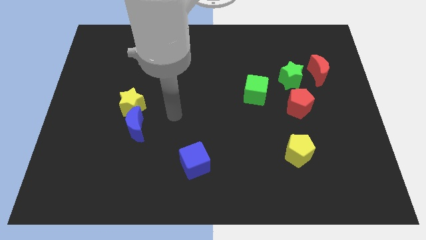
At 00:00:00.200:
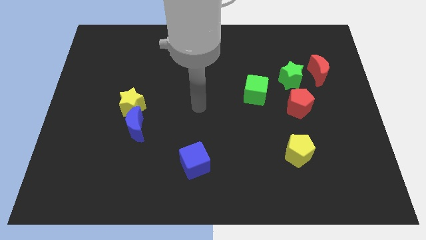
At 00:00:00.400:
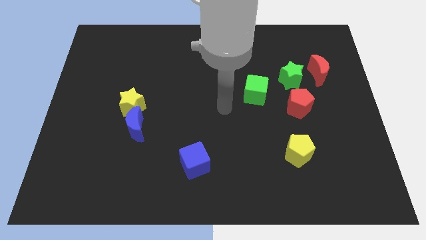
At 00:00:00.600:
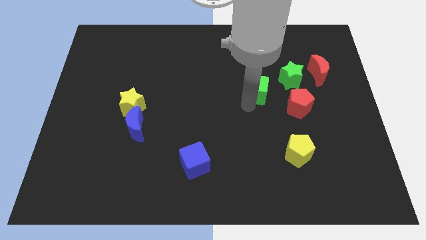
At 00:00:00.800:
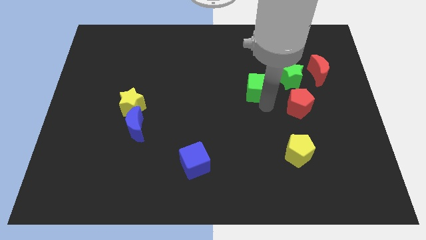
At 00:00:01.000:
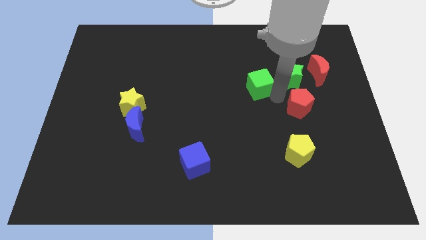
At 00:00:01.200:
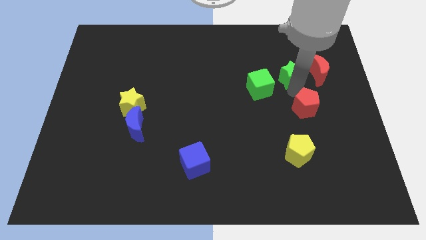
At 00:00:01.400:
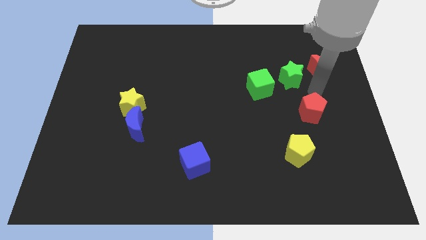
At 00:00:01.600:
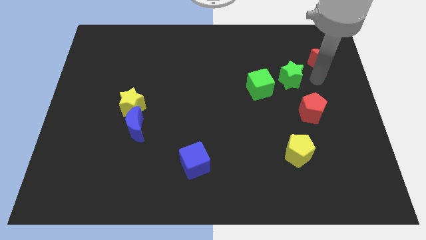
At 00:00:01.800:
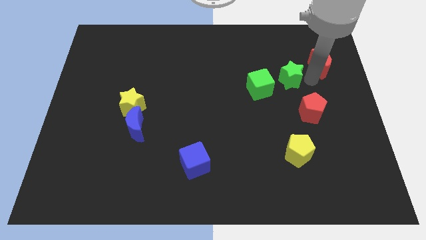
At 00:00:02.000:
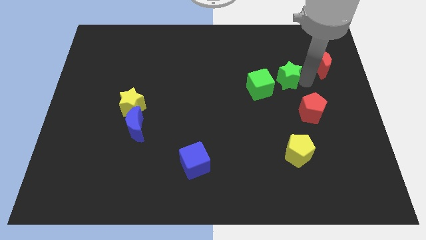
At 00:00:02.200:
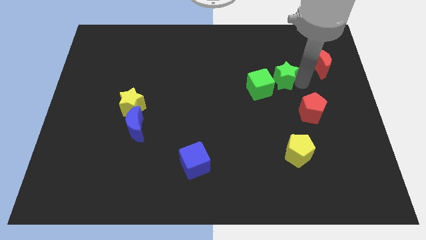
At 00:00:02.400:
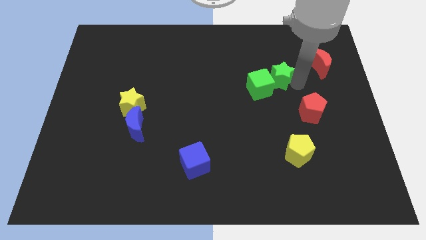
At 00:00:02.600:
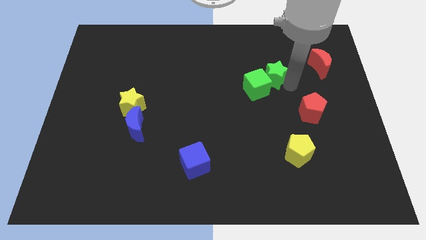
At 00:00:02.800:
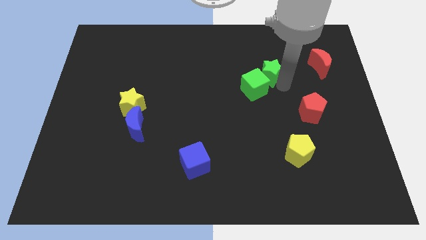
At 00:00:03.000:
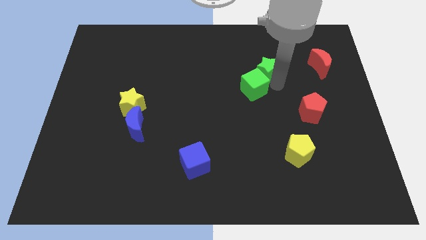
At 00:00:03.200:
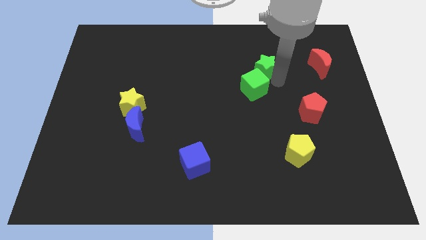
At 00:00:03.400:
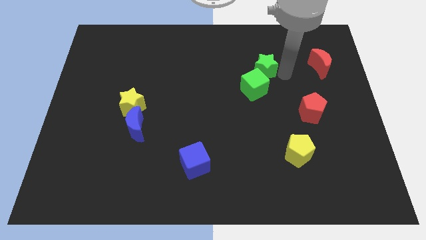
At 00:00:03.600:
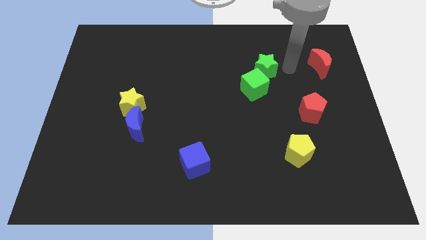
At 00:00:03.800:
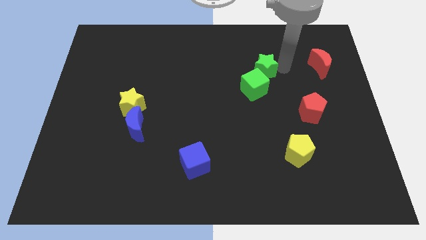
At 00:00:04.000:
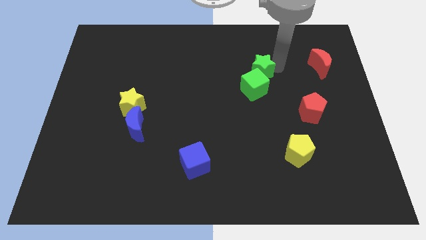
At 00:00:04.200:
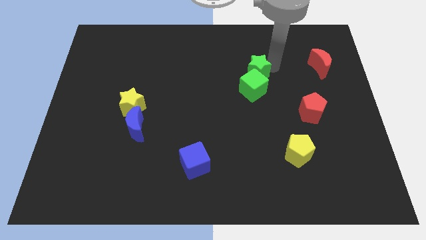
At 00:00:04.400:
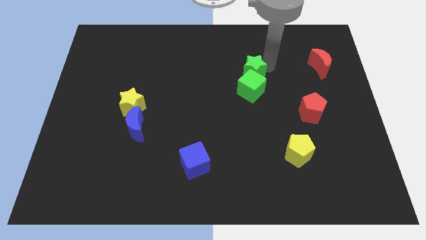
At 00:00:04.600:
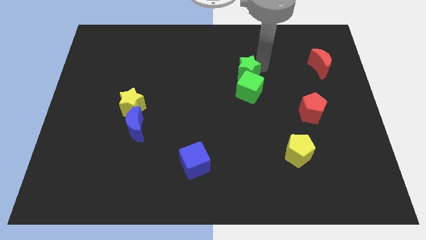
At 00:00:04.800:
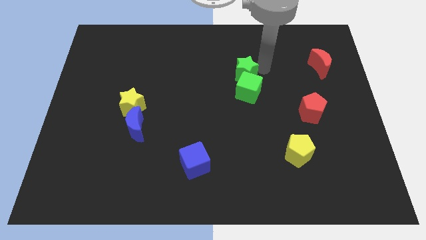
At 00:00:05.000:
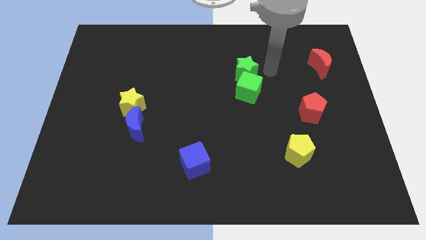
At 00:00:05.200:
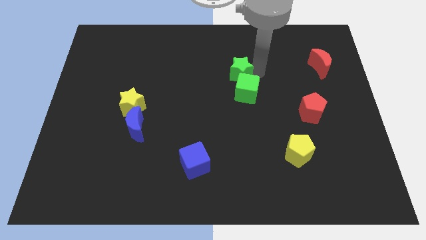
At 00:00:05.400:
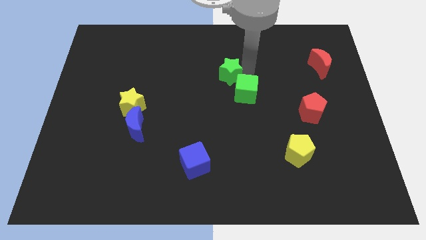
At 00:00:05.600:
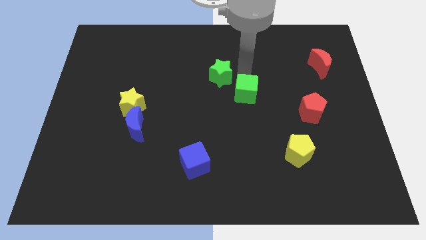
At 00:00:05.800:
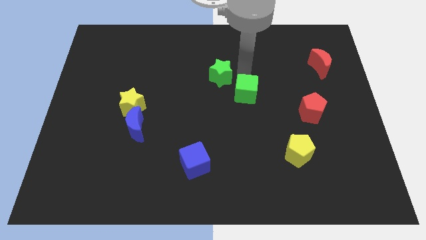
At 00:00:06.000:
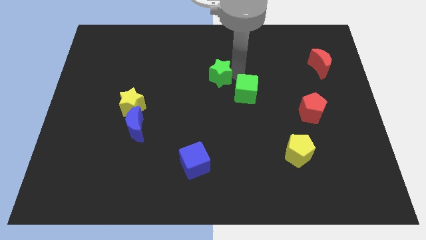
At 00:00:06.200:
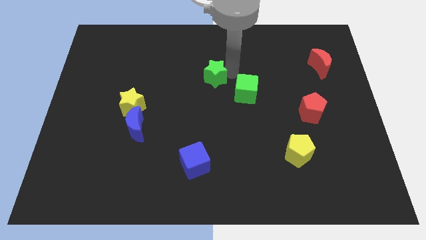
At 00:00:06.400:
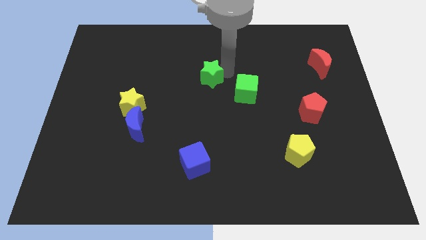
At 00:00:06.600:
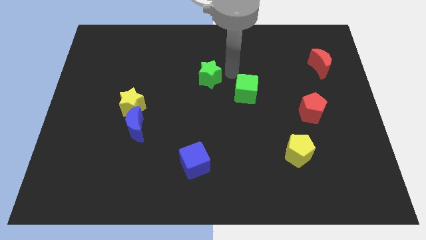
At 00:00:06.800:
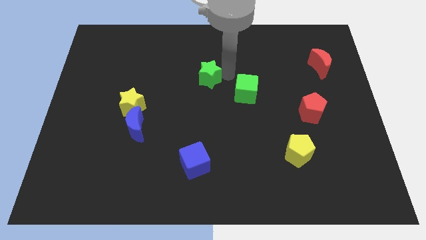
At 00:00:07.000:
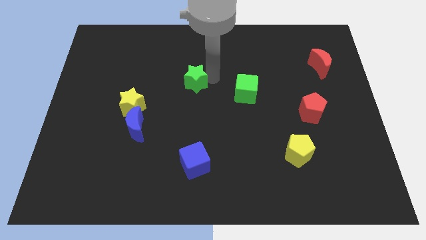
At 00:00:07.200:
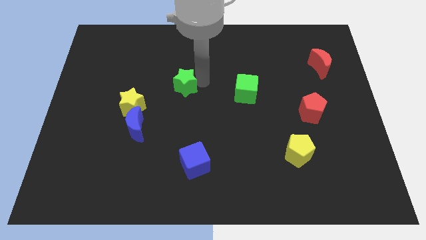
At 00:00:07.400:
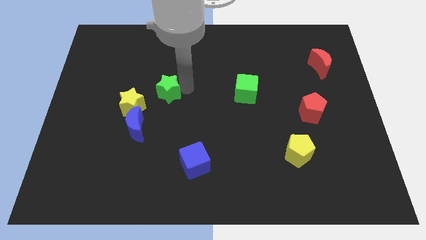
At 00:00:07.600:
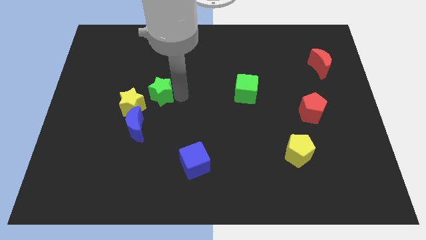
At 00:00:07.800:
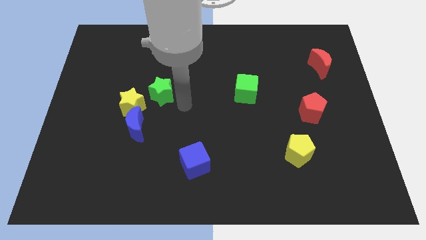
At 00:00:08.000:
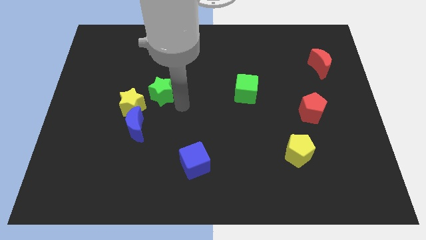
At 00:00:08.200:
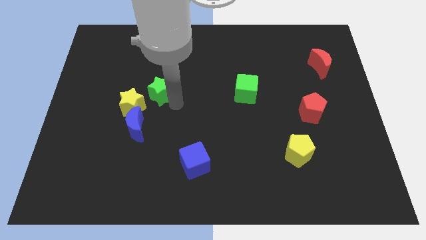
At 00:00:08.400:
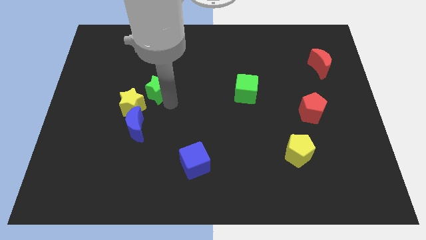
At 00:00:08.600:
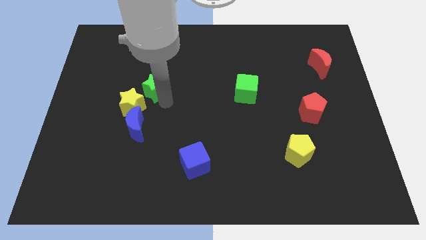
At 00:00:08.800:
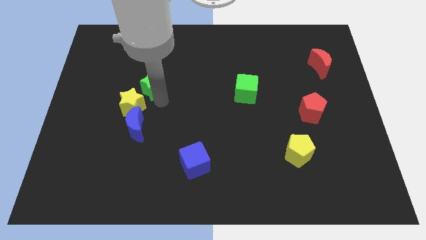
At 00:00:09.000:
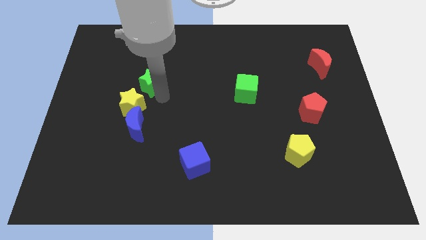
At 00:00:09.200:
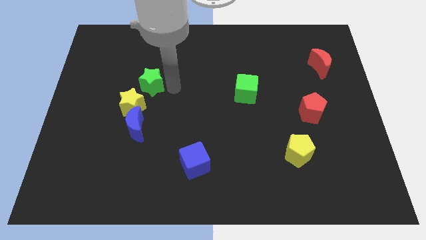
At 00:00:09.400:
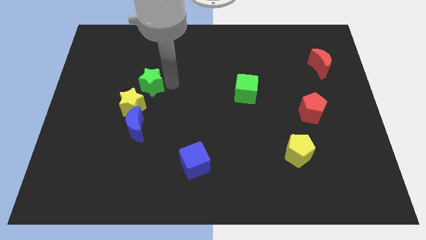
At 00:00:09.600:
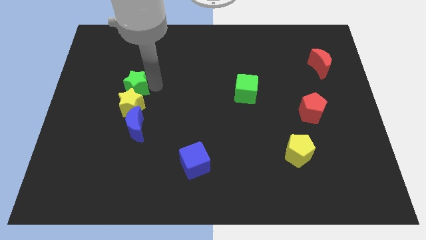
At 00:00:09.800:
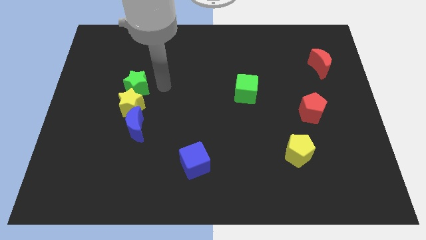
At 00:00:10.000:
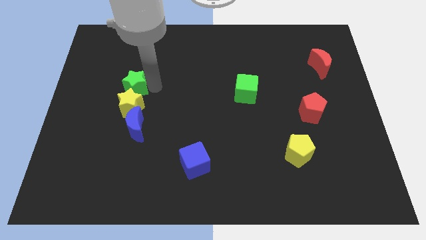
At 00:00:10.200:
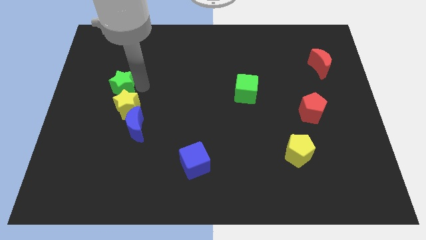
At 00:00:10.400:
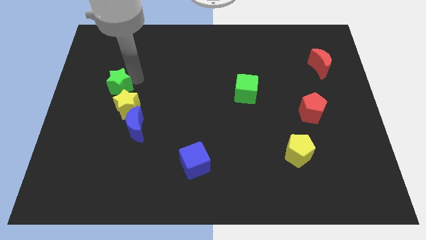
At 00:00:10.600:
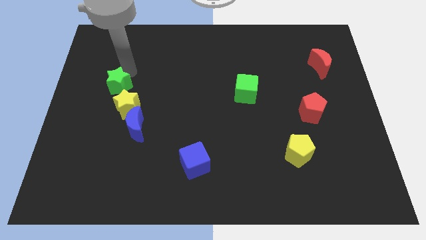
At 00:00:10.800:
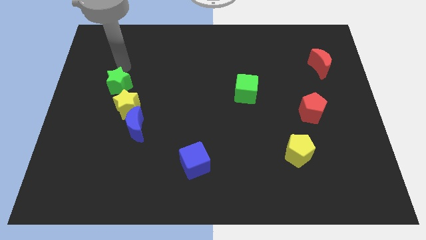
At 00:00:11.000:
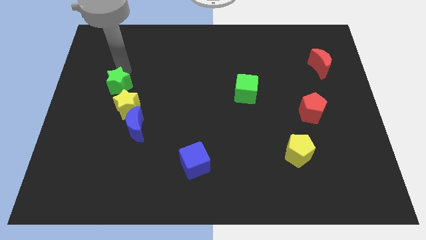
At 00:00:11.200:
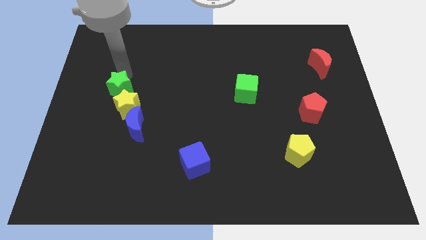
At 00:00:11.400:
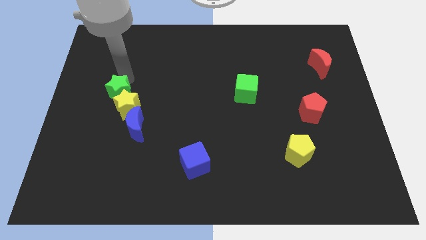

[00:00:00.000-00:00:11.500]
put the green star to the top left side of the blue moon

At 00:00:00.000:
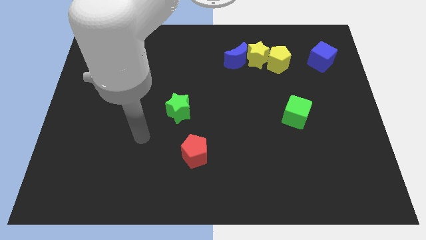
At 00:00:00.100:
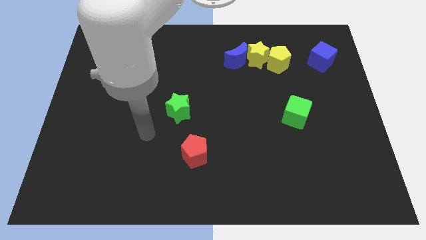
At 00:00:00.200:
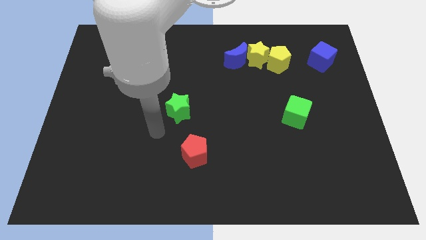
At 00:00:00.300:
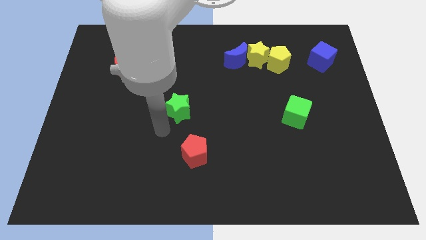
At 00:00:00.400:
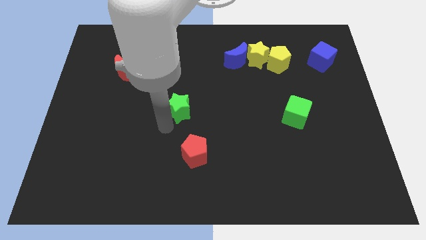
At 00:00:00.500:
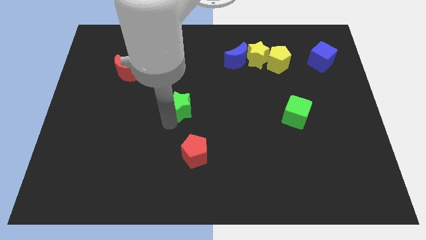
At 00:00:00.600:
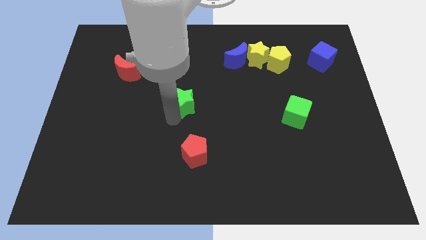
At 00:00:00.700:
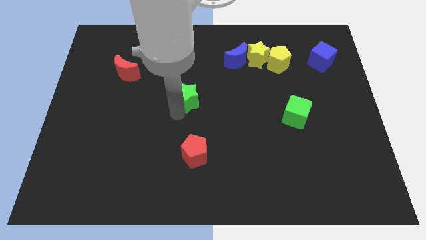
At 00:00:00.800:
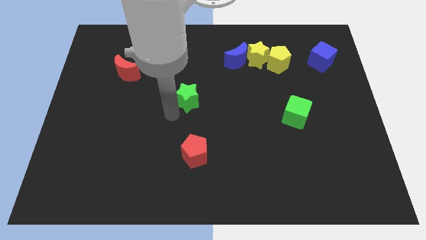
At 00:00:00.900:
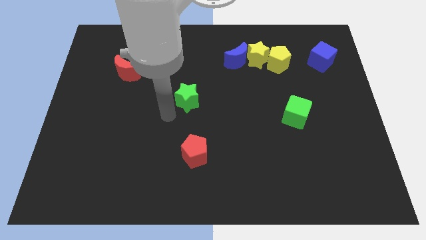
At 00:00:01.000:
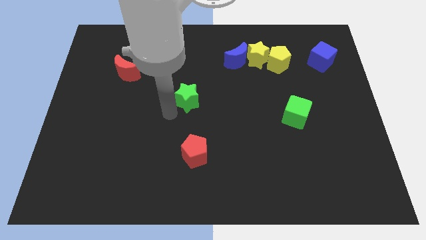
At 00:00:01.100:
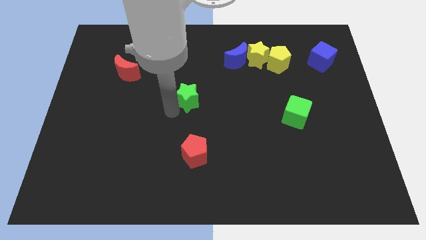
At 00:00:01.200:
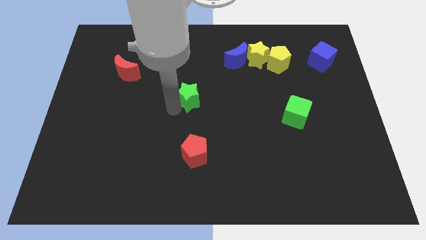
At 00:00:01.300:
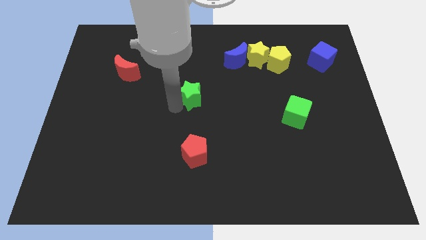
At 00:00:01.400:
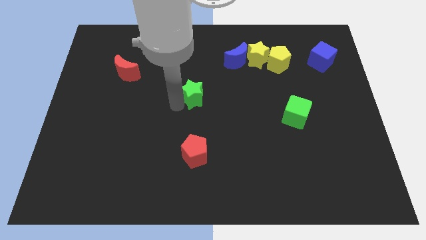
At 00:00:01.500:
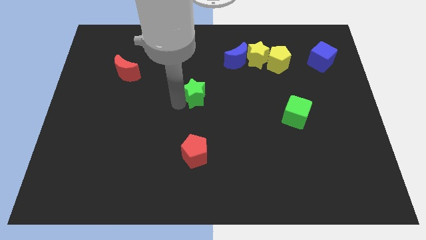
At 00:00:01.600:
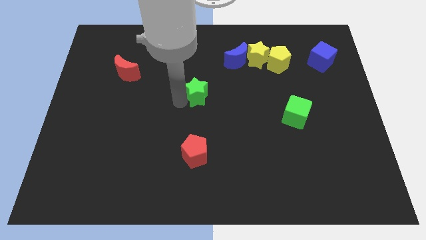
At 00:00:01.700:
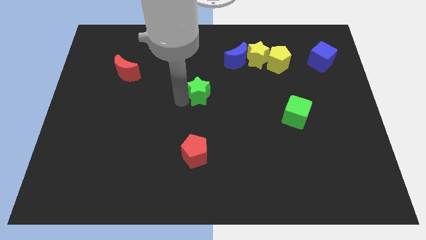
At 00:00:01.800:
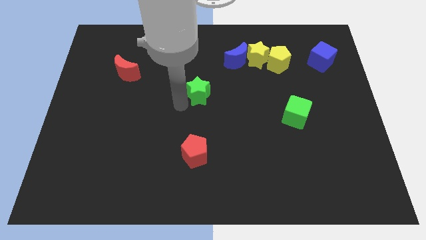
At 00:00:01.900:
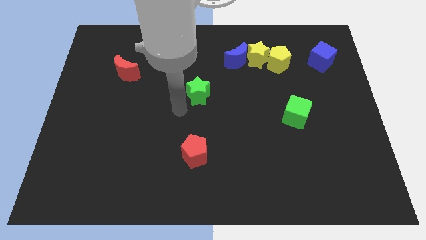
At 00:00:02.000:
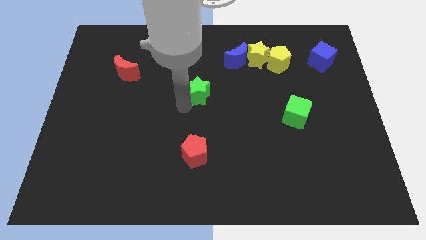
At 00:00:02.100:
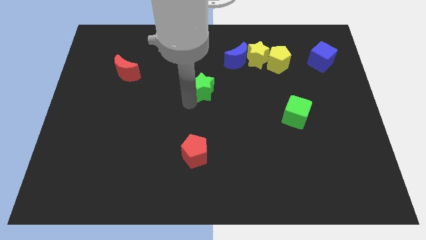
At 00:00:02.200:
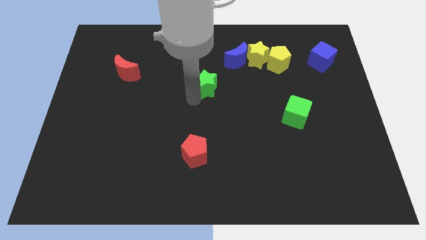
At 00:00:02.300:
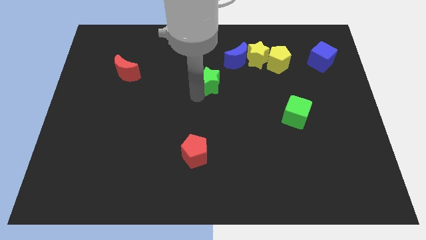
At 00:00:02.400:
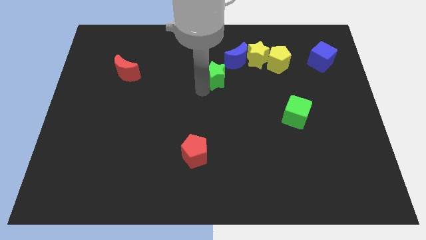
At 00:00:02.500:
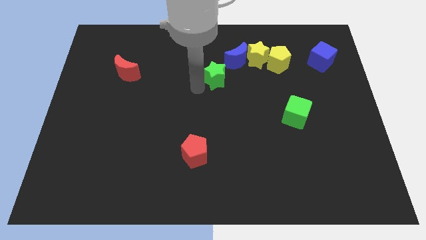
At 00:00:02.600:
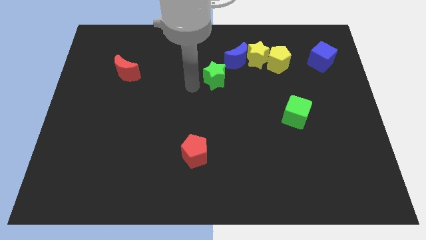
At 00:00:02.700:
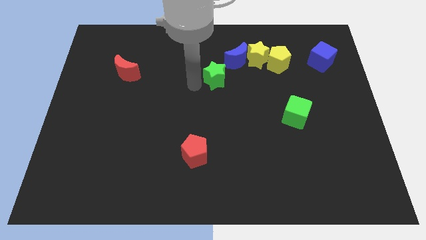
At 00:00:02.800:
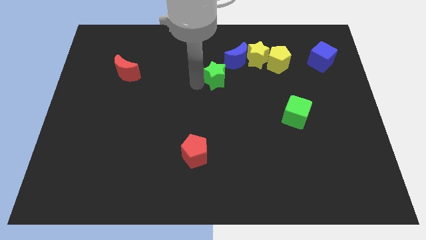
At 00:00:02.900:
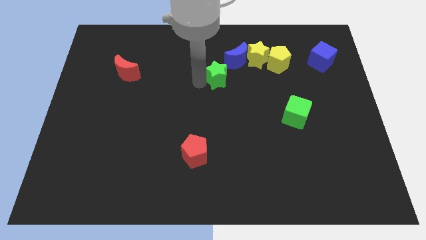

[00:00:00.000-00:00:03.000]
move the green star to the bottom left side of the yellow star
